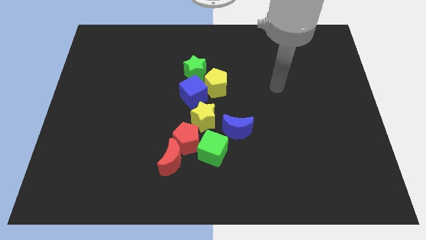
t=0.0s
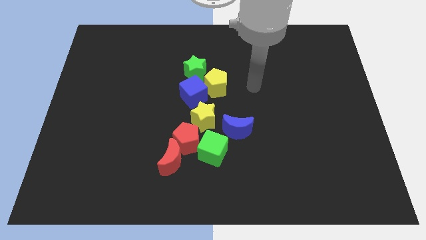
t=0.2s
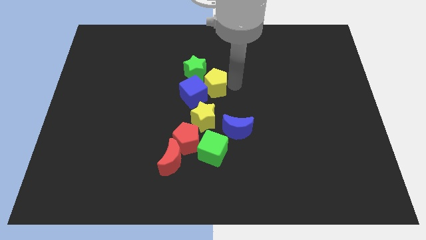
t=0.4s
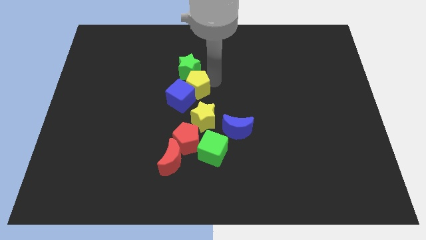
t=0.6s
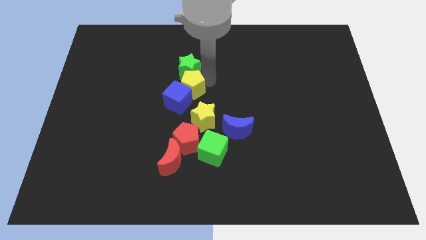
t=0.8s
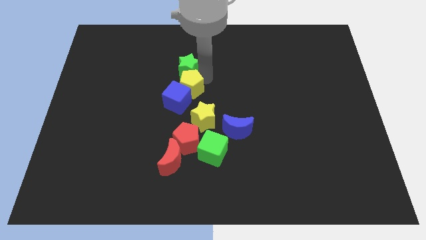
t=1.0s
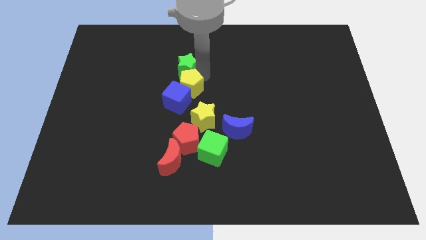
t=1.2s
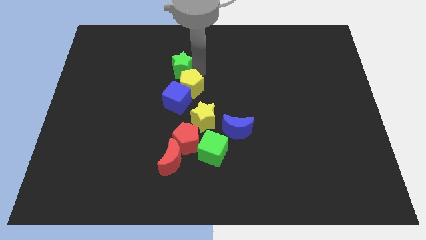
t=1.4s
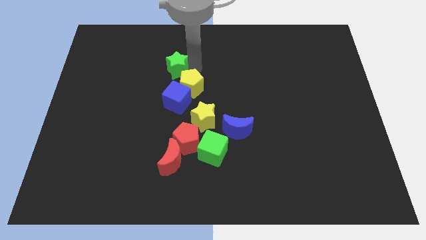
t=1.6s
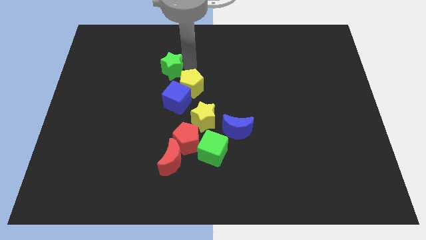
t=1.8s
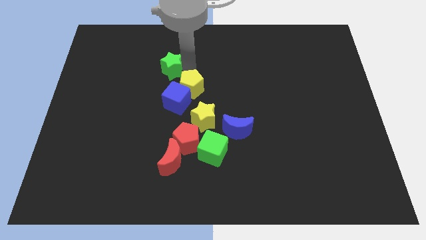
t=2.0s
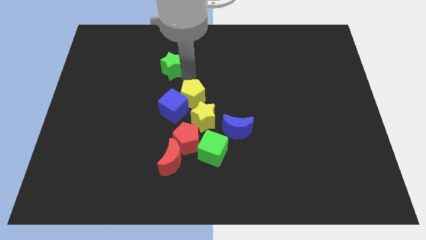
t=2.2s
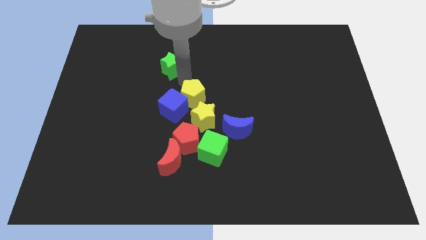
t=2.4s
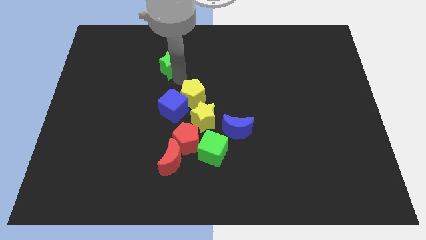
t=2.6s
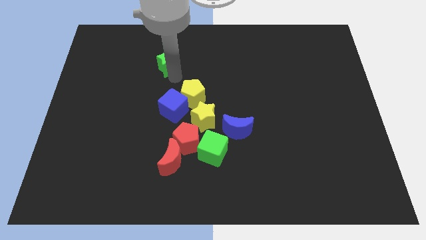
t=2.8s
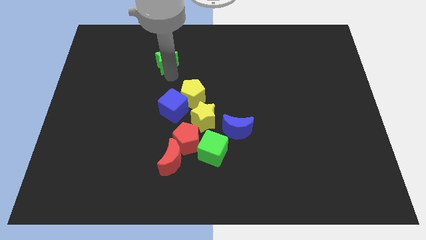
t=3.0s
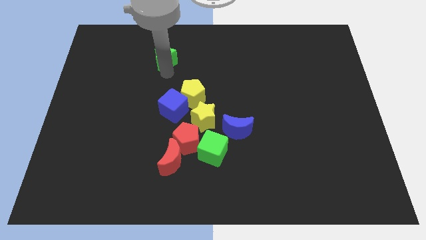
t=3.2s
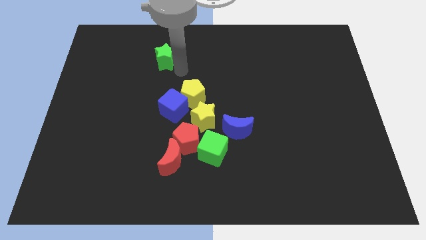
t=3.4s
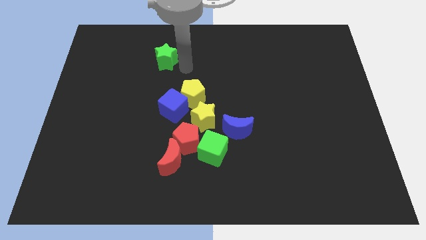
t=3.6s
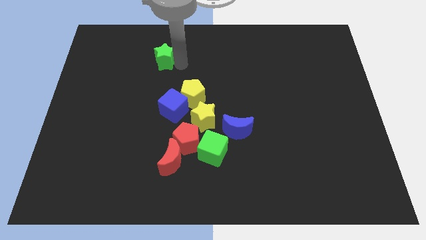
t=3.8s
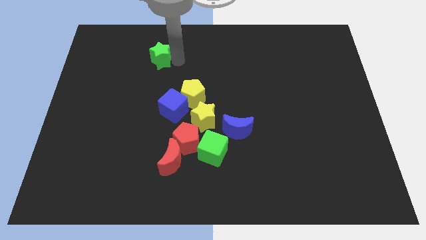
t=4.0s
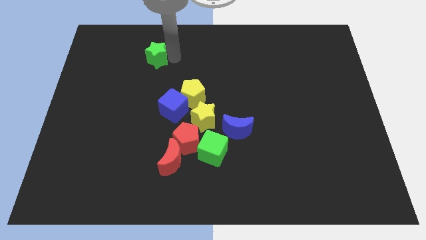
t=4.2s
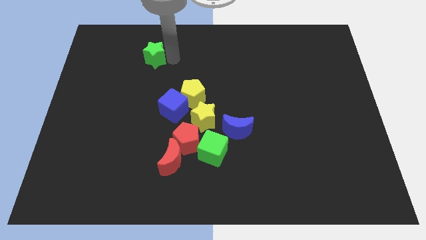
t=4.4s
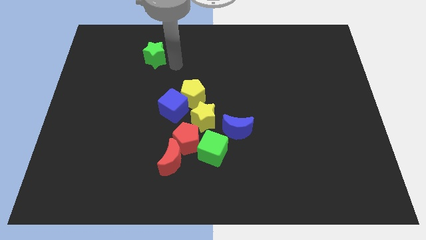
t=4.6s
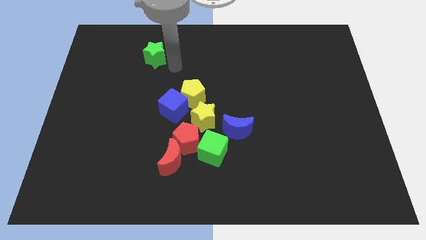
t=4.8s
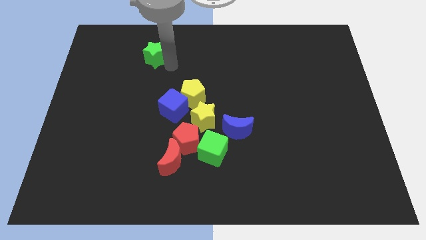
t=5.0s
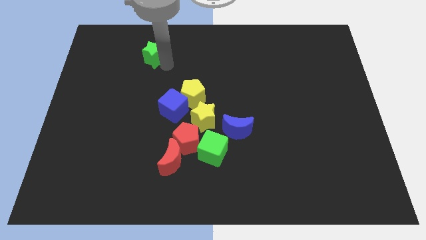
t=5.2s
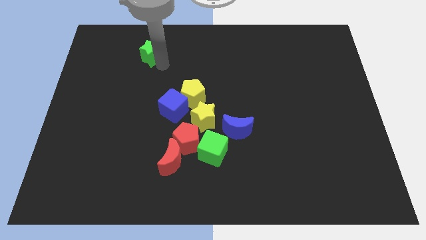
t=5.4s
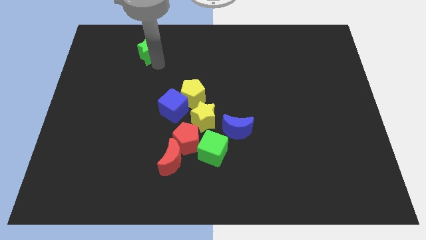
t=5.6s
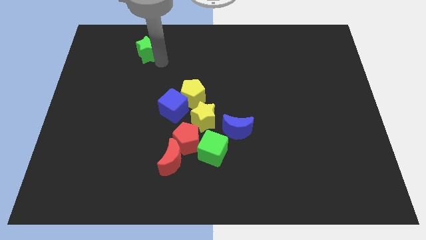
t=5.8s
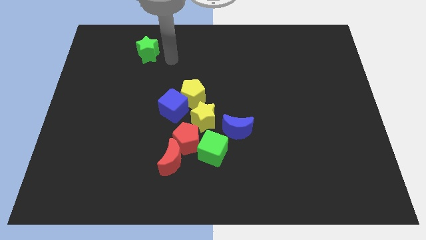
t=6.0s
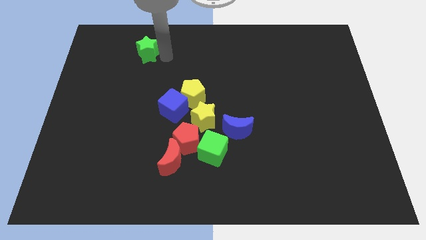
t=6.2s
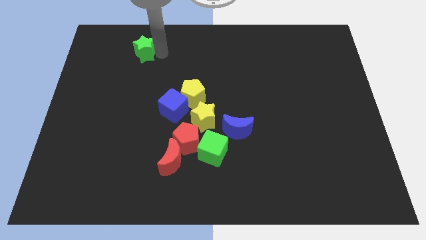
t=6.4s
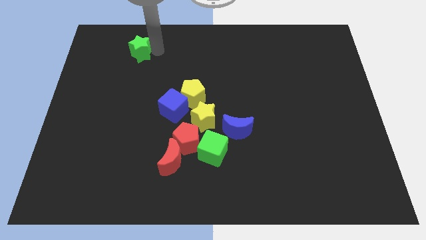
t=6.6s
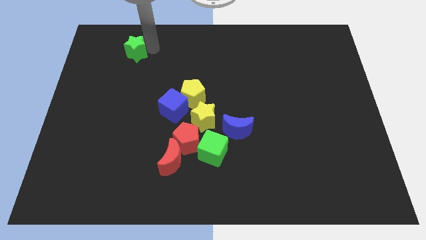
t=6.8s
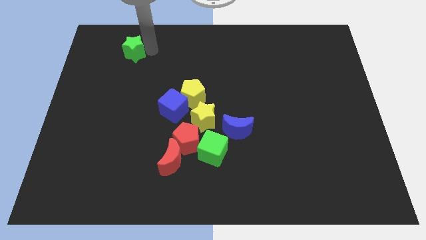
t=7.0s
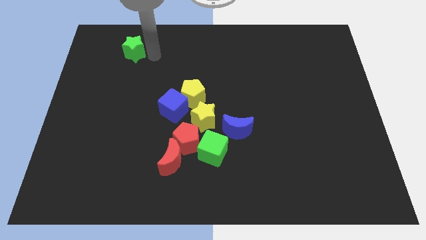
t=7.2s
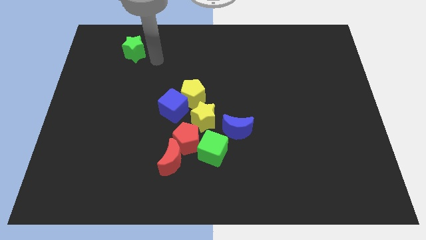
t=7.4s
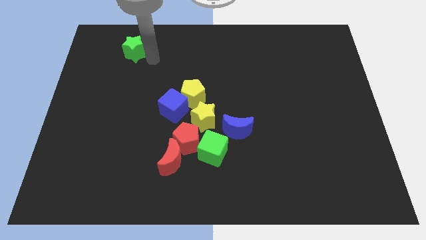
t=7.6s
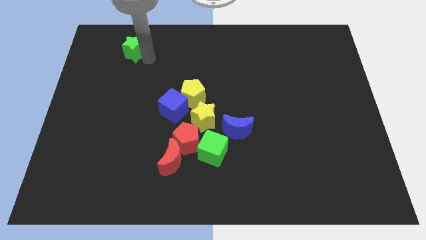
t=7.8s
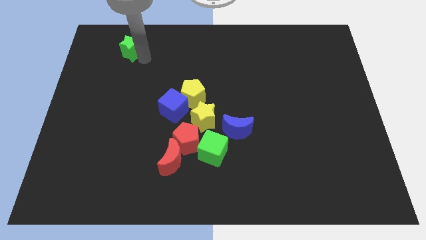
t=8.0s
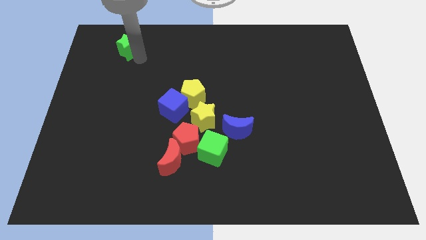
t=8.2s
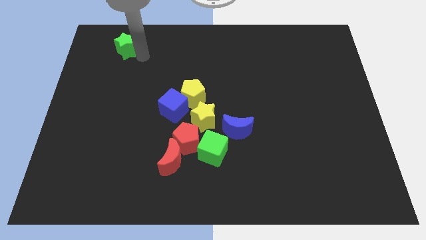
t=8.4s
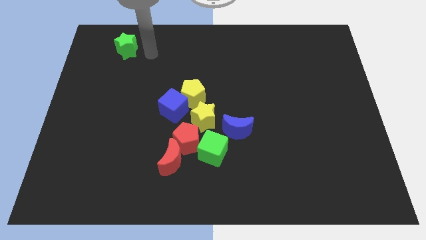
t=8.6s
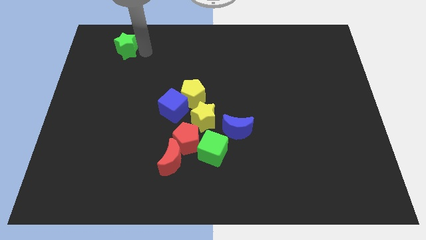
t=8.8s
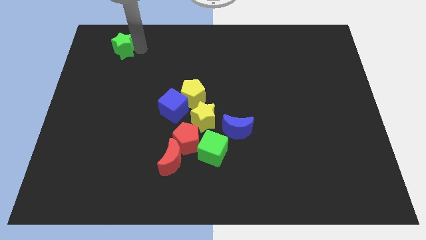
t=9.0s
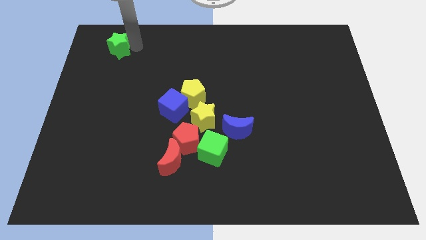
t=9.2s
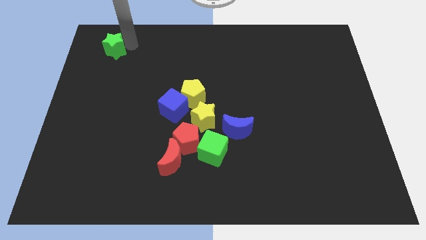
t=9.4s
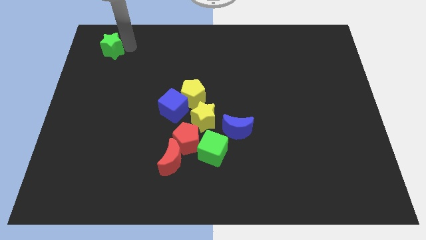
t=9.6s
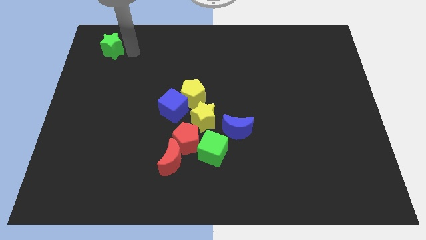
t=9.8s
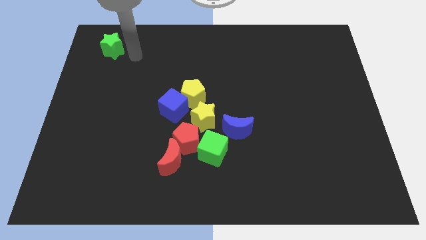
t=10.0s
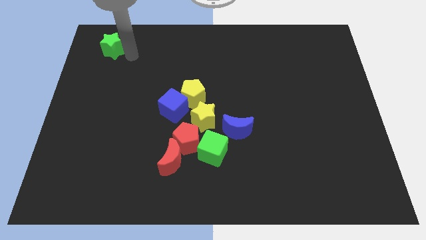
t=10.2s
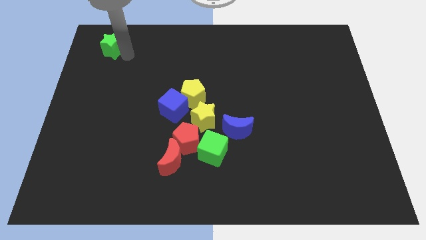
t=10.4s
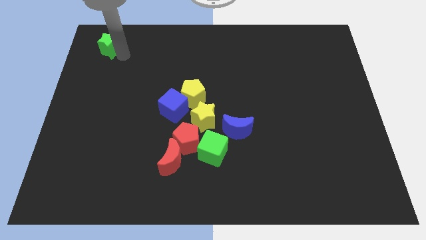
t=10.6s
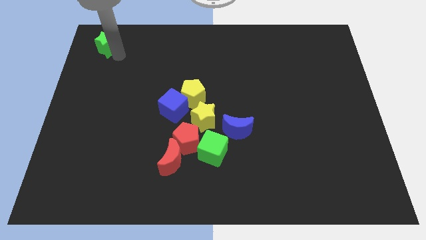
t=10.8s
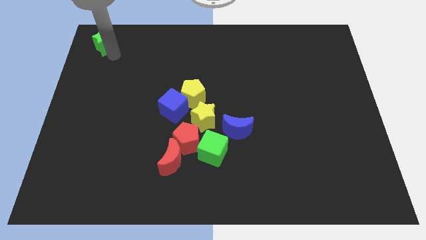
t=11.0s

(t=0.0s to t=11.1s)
push the green star to the top left of the board

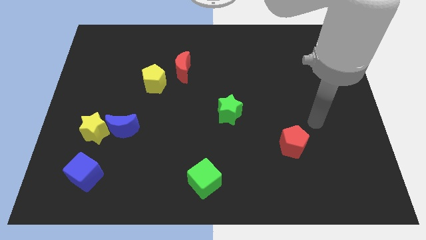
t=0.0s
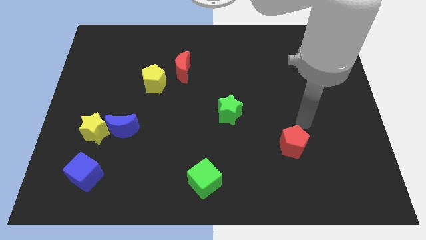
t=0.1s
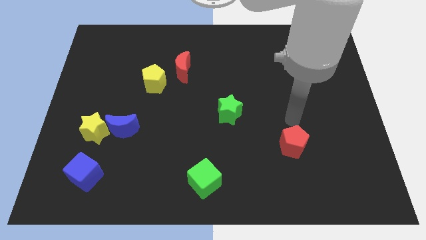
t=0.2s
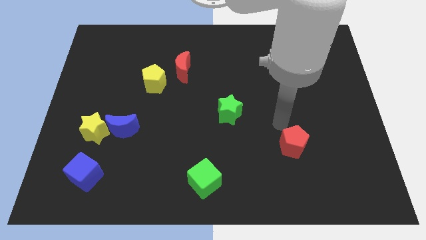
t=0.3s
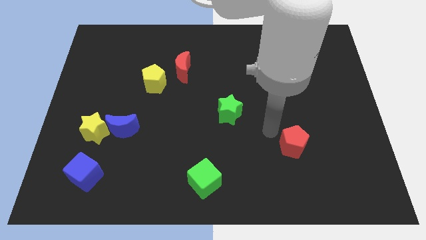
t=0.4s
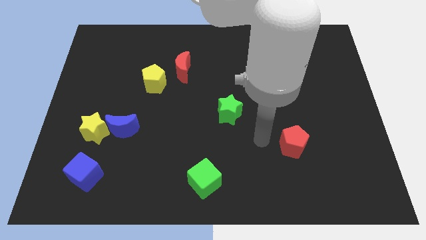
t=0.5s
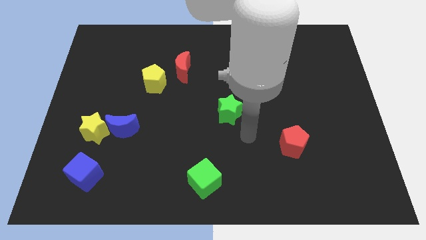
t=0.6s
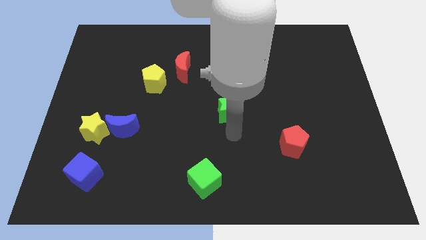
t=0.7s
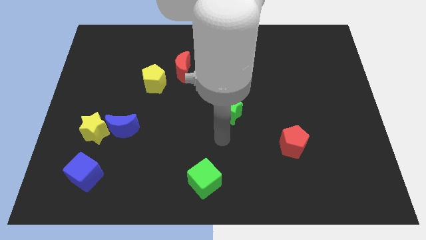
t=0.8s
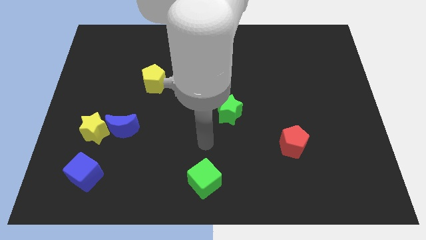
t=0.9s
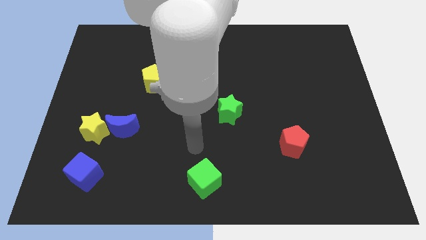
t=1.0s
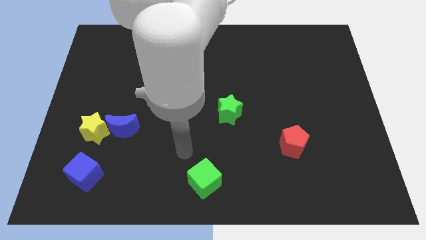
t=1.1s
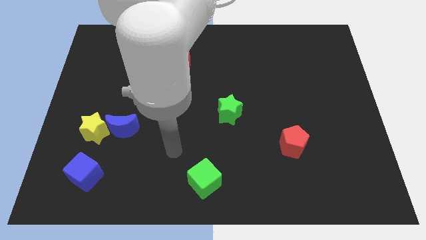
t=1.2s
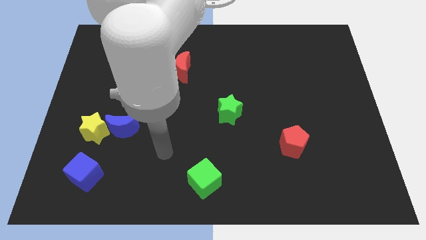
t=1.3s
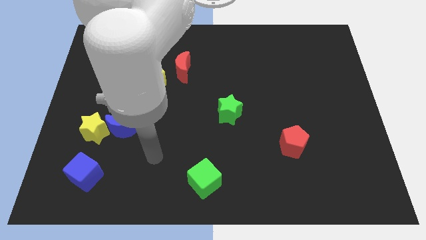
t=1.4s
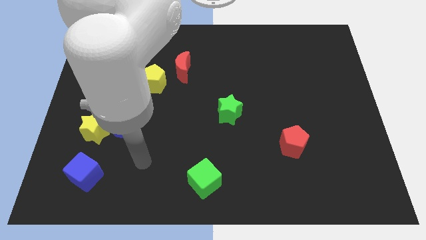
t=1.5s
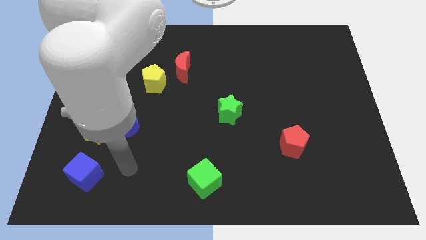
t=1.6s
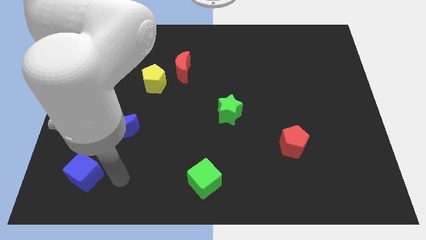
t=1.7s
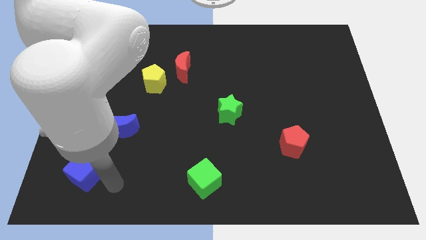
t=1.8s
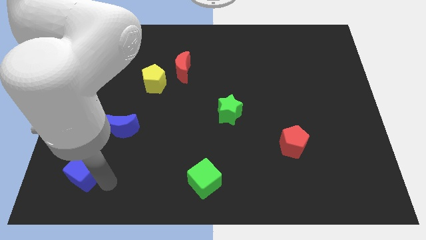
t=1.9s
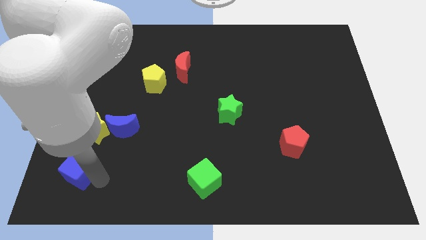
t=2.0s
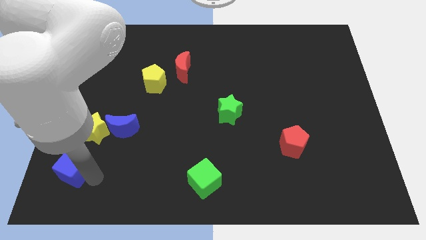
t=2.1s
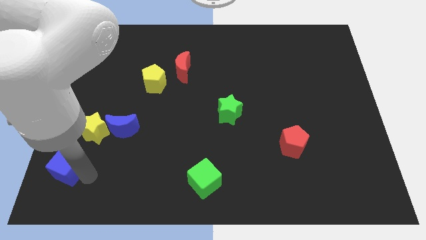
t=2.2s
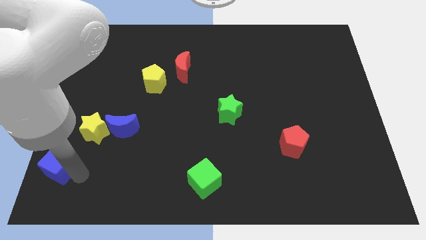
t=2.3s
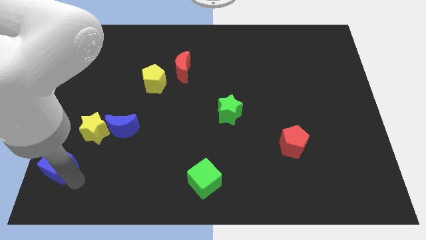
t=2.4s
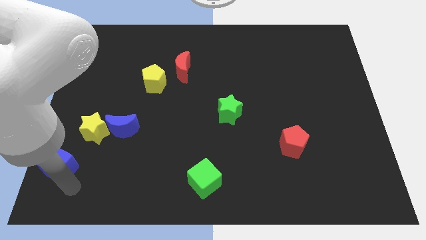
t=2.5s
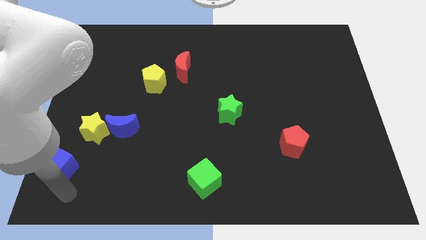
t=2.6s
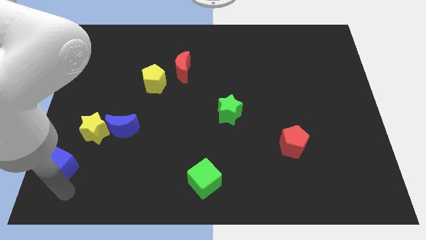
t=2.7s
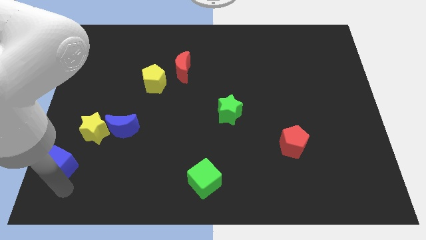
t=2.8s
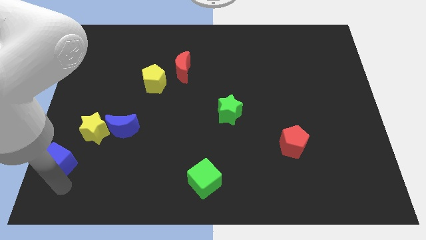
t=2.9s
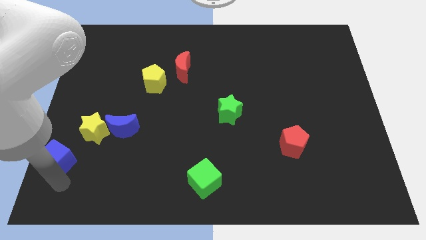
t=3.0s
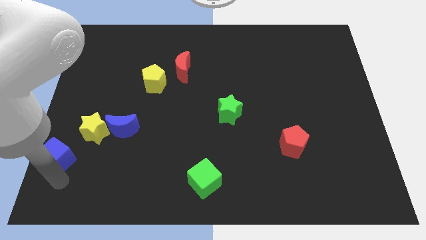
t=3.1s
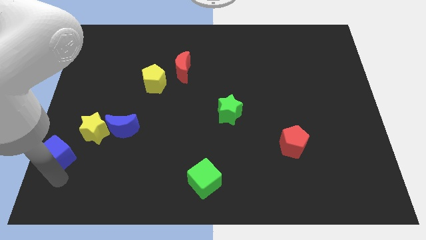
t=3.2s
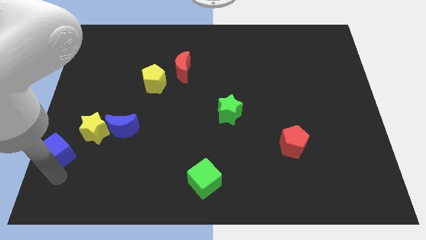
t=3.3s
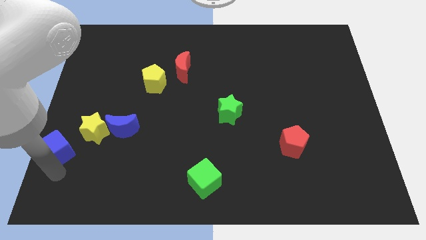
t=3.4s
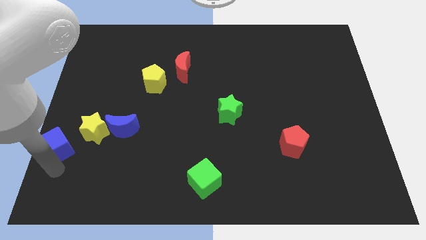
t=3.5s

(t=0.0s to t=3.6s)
slide the blue cube to the left side
